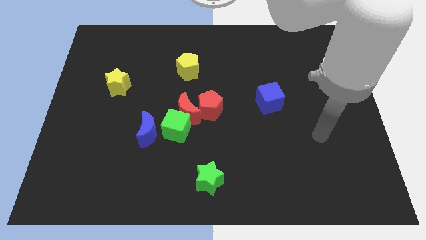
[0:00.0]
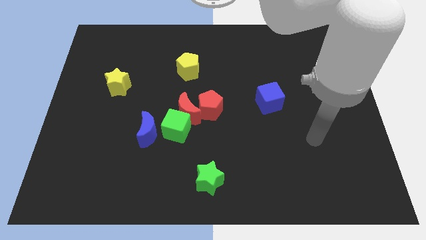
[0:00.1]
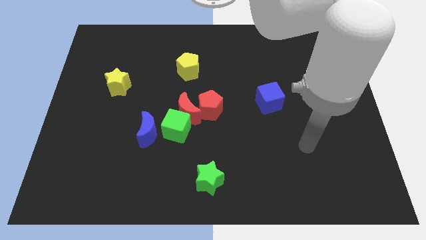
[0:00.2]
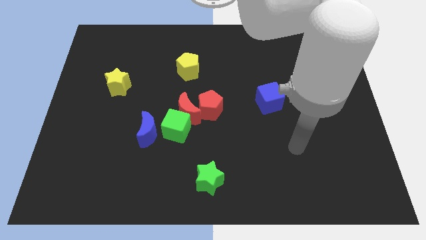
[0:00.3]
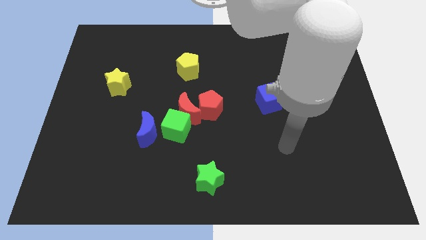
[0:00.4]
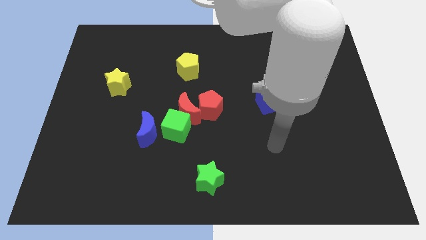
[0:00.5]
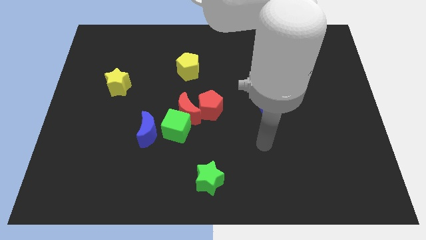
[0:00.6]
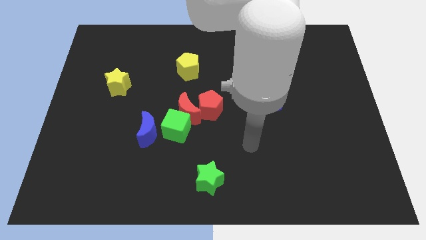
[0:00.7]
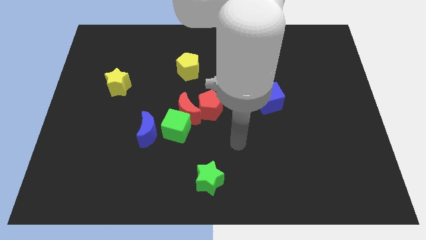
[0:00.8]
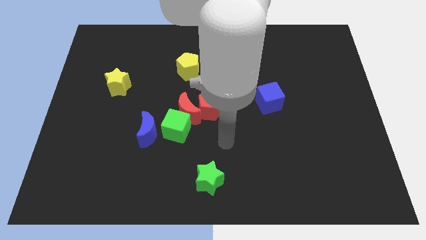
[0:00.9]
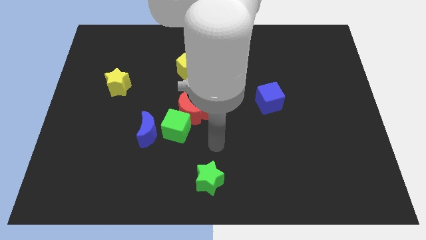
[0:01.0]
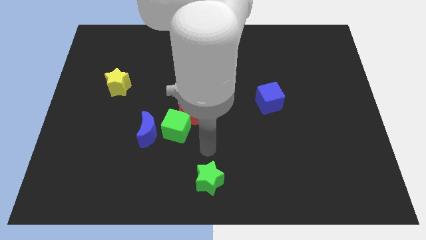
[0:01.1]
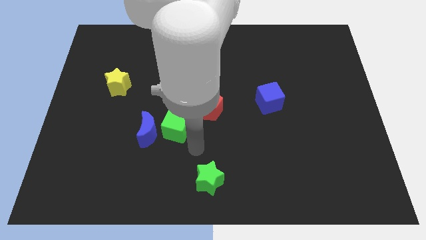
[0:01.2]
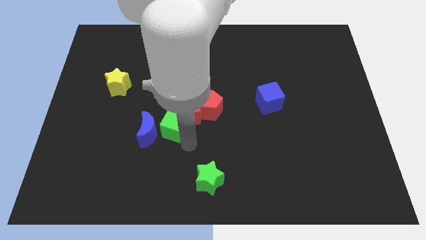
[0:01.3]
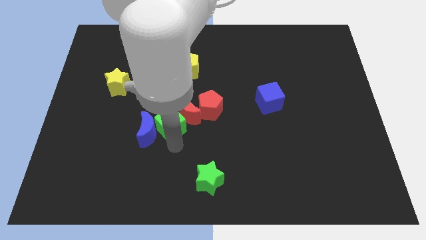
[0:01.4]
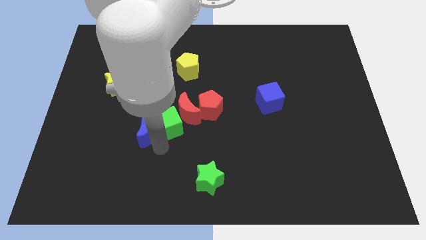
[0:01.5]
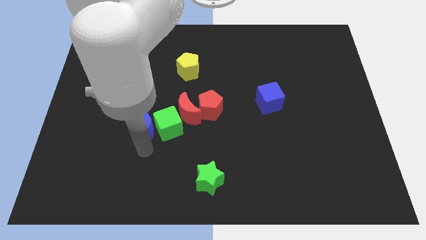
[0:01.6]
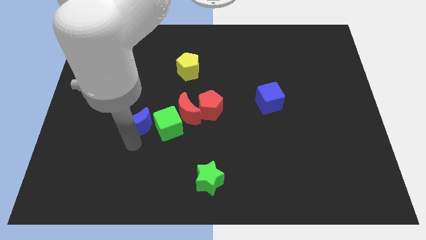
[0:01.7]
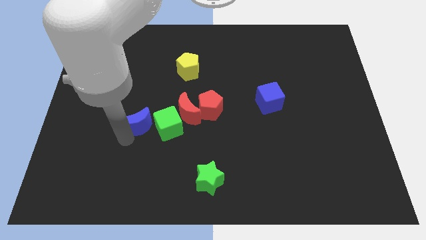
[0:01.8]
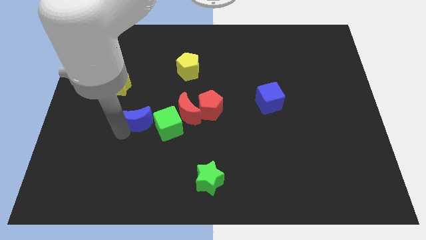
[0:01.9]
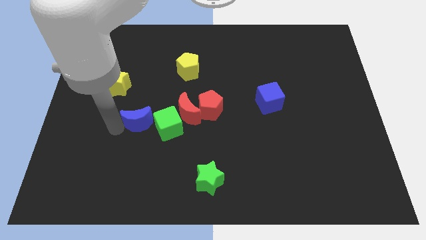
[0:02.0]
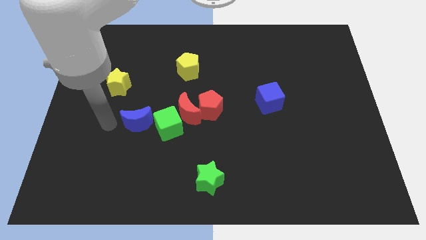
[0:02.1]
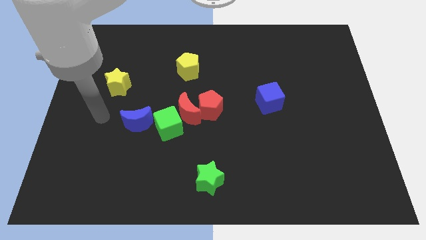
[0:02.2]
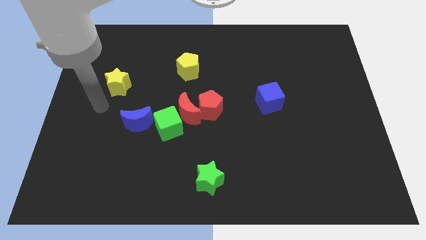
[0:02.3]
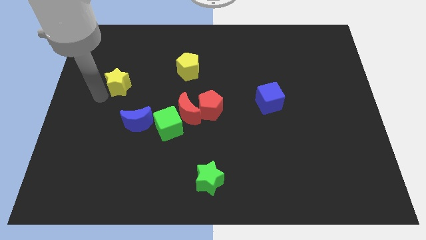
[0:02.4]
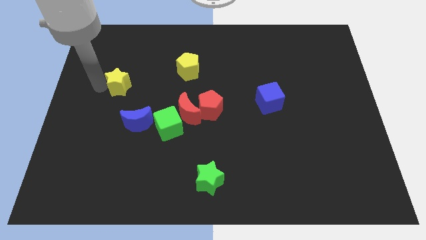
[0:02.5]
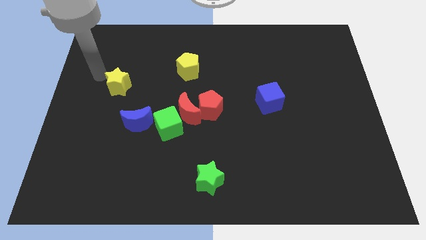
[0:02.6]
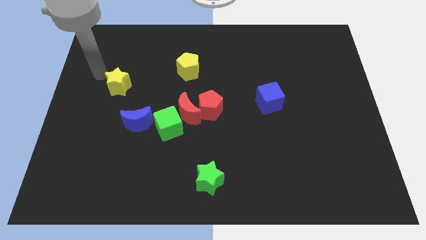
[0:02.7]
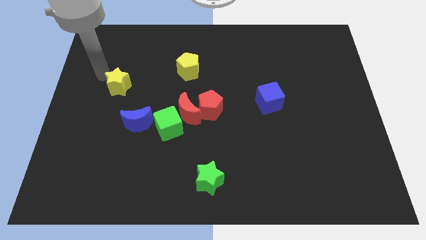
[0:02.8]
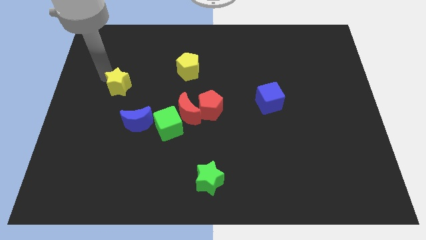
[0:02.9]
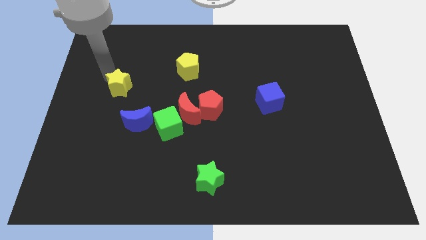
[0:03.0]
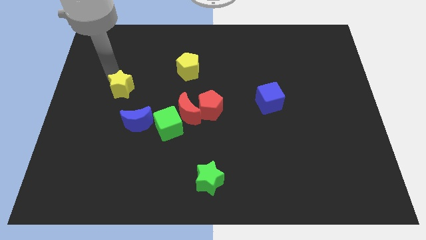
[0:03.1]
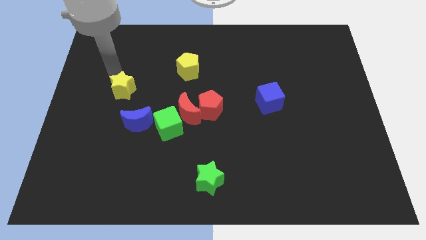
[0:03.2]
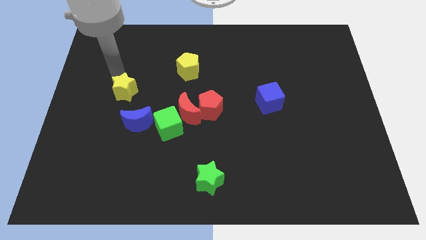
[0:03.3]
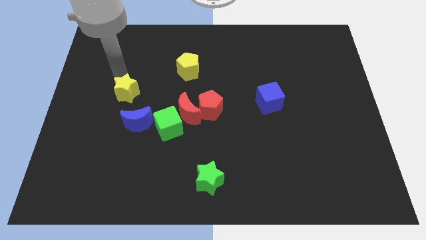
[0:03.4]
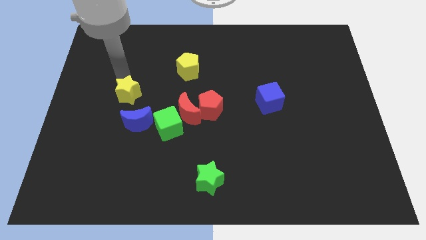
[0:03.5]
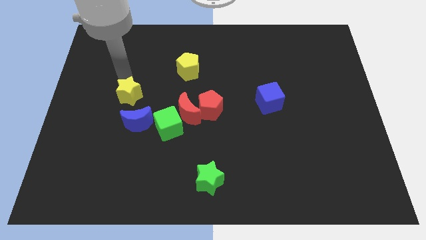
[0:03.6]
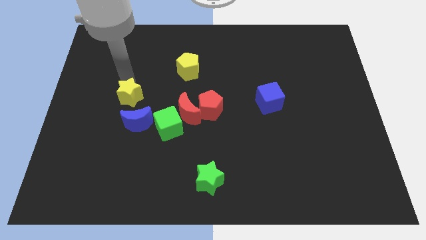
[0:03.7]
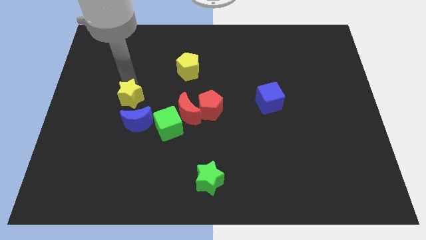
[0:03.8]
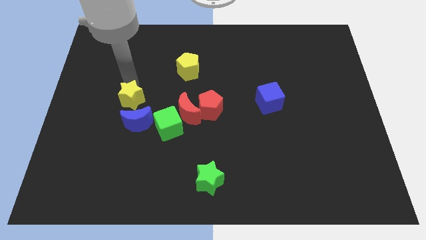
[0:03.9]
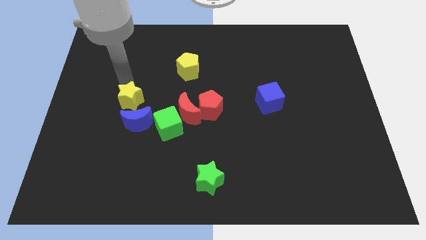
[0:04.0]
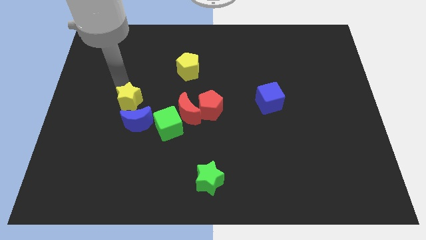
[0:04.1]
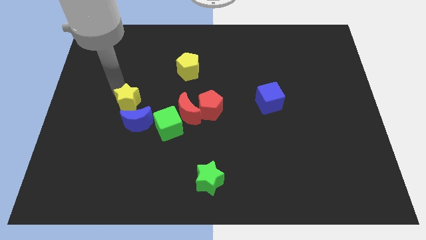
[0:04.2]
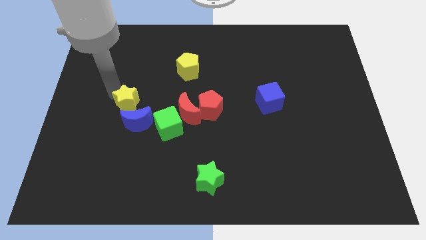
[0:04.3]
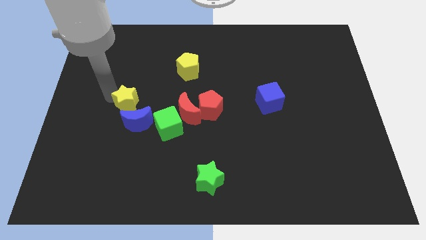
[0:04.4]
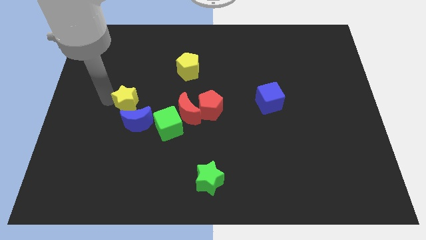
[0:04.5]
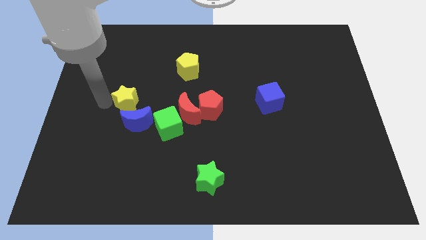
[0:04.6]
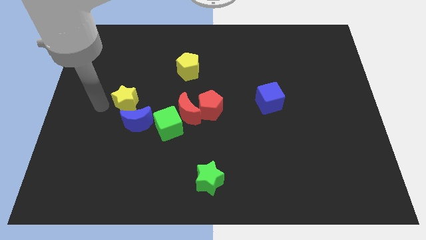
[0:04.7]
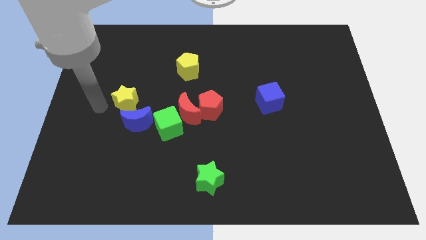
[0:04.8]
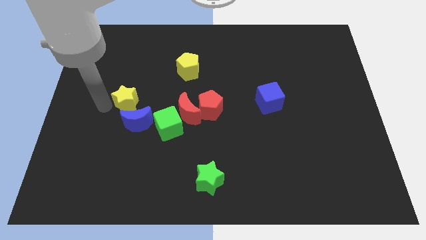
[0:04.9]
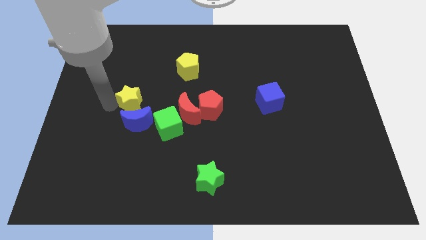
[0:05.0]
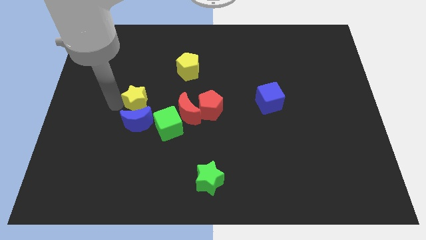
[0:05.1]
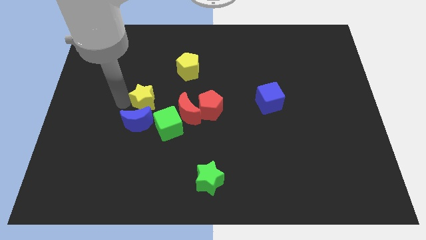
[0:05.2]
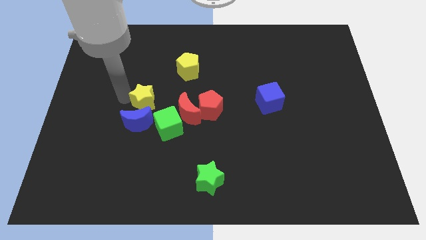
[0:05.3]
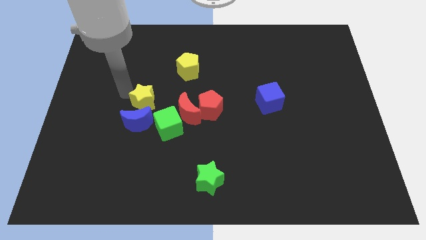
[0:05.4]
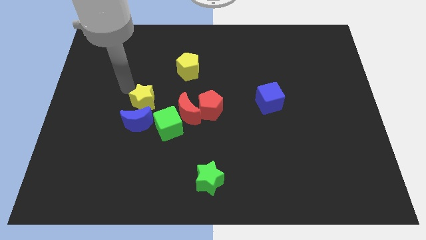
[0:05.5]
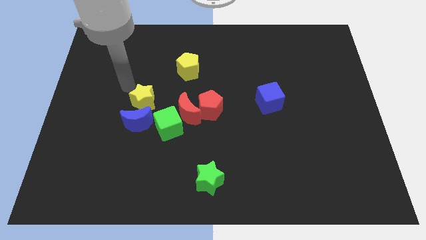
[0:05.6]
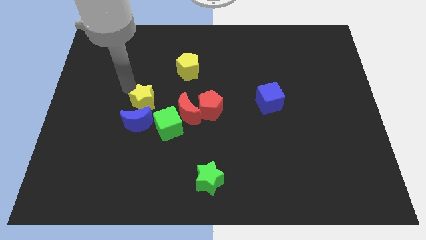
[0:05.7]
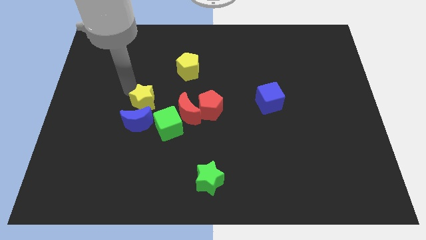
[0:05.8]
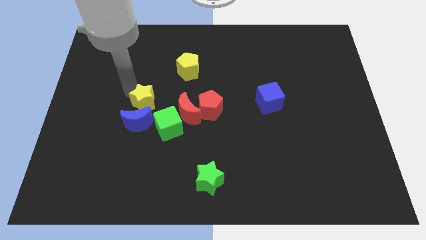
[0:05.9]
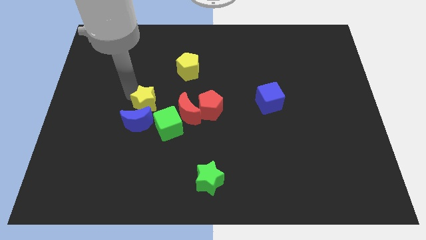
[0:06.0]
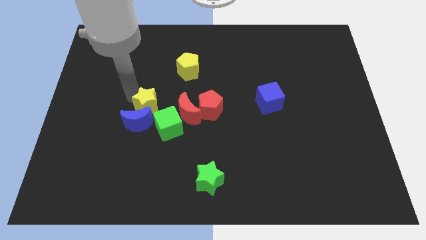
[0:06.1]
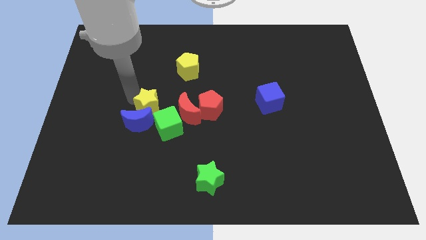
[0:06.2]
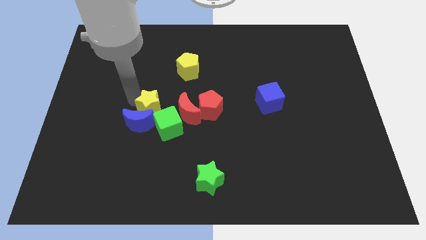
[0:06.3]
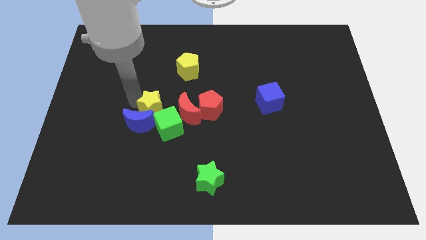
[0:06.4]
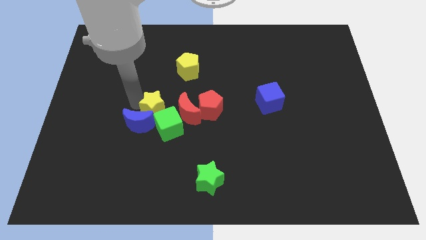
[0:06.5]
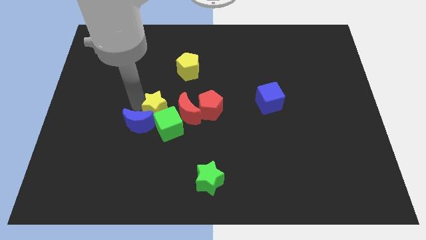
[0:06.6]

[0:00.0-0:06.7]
push the yellow star to the green cube
